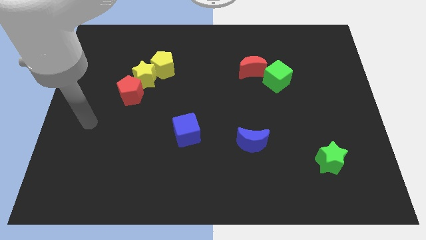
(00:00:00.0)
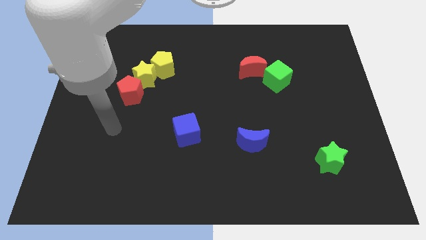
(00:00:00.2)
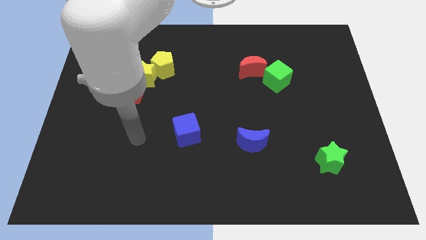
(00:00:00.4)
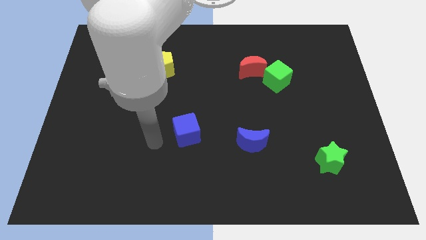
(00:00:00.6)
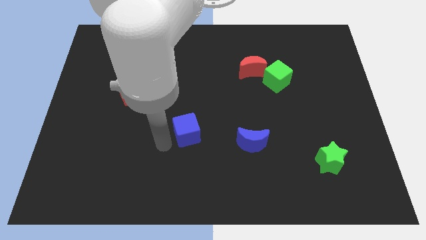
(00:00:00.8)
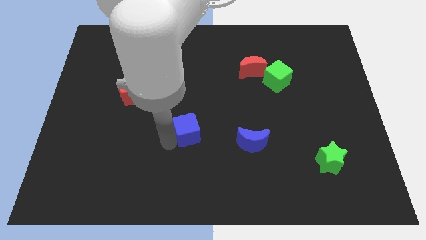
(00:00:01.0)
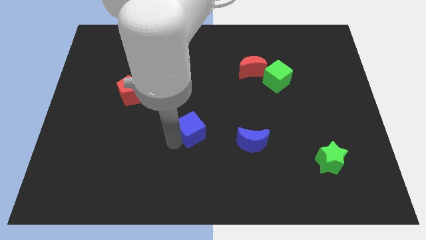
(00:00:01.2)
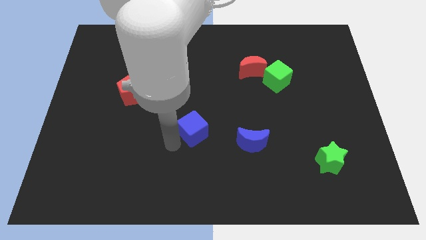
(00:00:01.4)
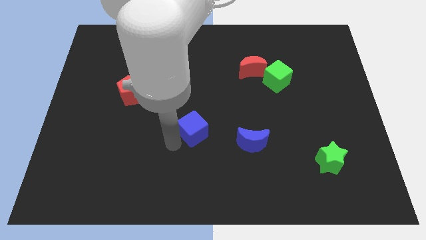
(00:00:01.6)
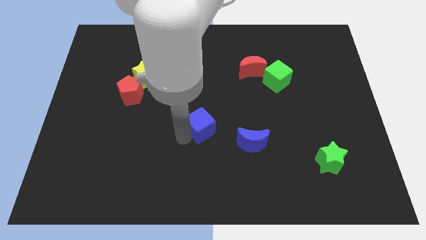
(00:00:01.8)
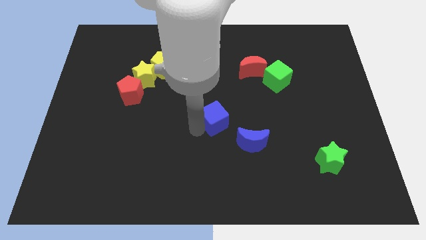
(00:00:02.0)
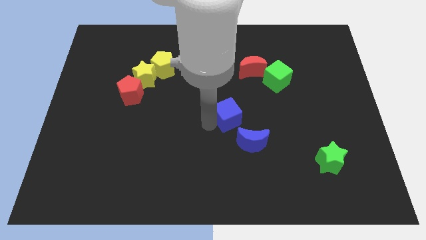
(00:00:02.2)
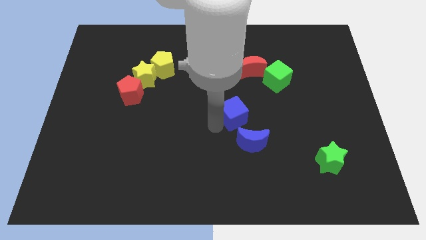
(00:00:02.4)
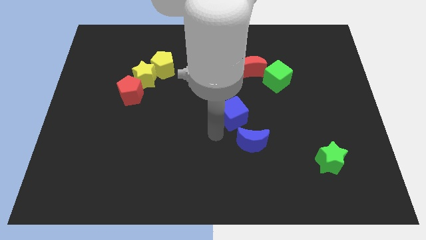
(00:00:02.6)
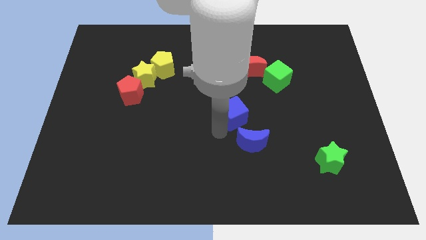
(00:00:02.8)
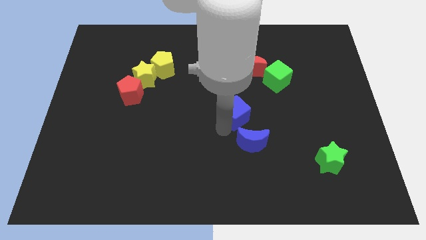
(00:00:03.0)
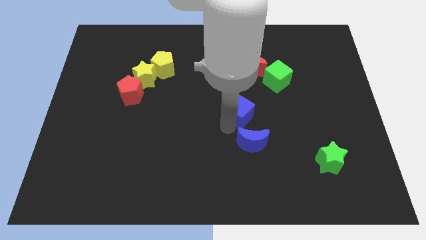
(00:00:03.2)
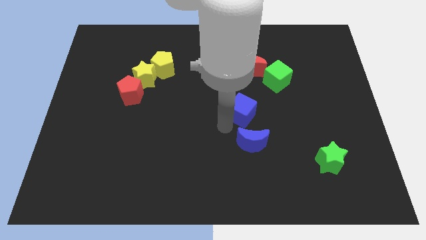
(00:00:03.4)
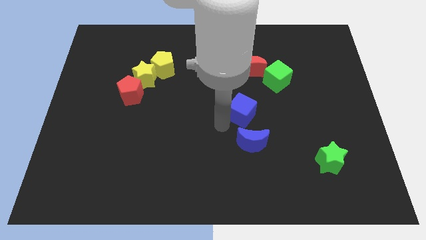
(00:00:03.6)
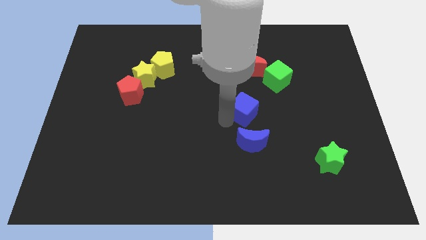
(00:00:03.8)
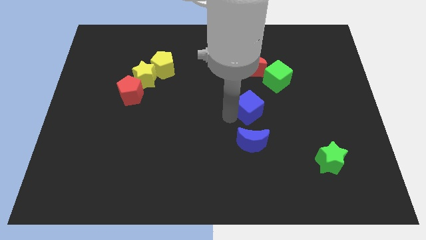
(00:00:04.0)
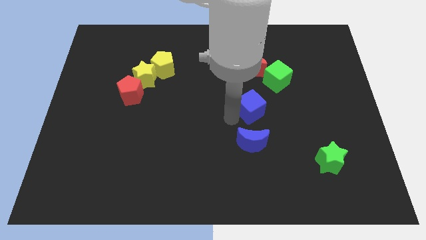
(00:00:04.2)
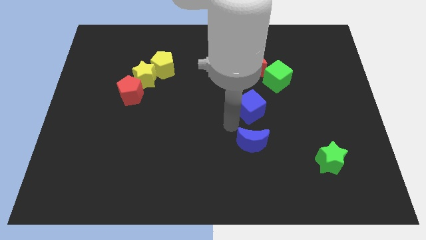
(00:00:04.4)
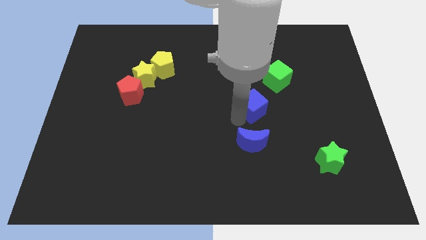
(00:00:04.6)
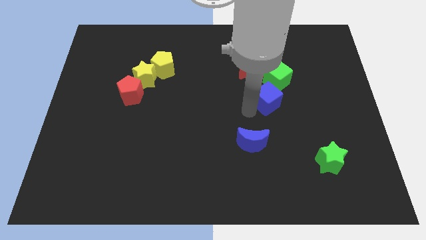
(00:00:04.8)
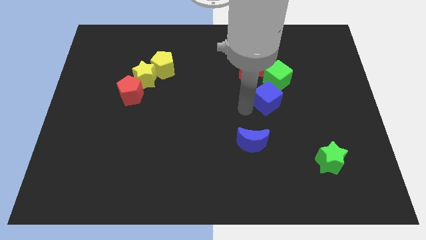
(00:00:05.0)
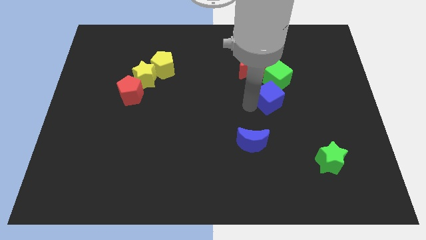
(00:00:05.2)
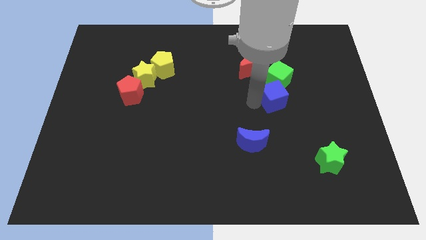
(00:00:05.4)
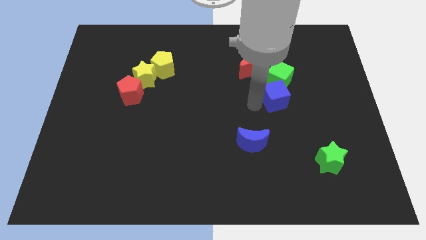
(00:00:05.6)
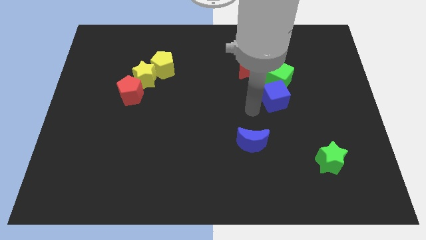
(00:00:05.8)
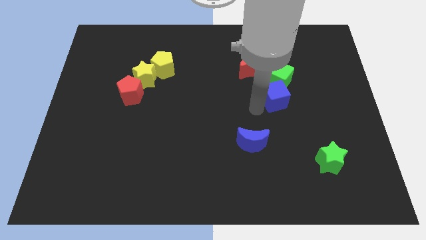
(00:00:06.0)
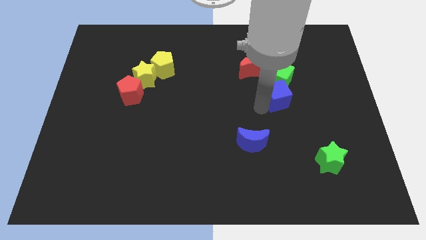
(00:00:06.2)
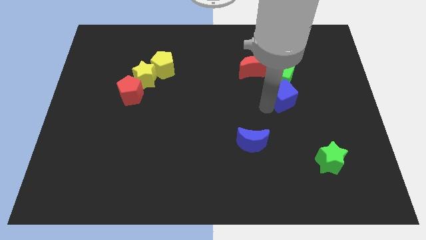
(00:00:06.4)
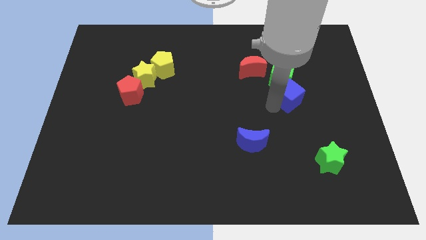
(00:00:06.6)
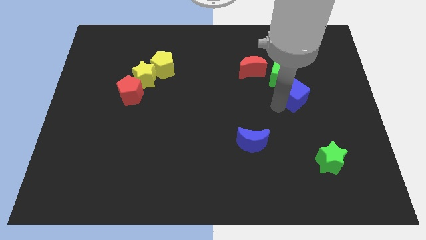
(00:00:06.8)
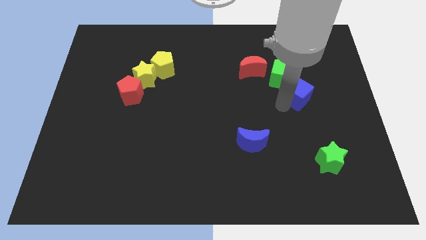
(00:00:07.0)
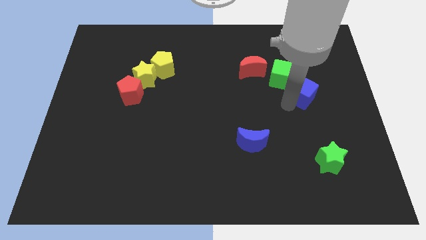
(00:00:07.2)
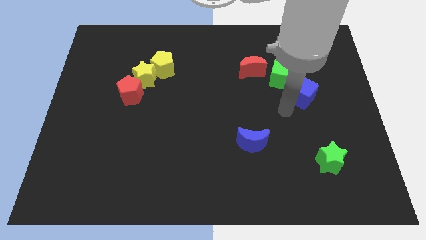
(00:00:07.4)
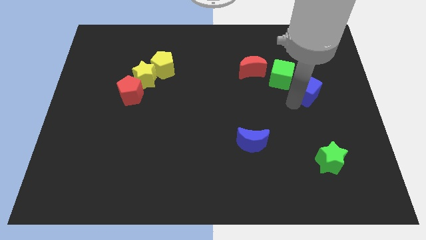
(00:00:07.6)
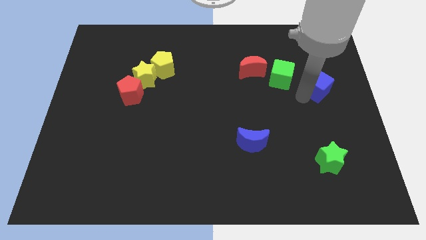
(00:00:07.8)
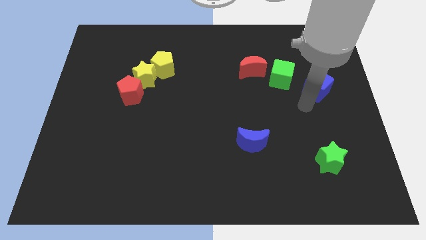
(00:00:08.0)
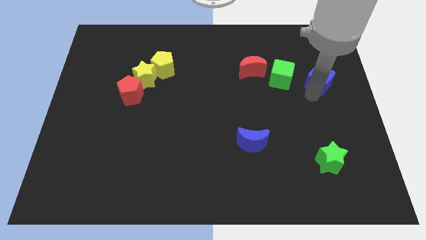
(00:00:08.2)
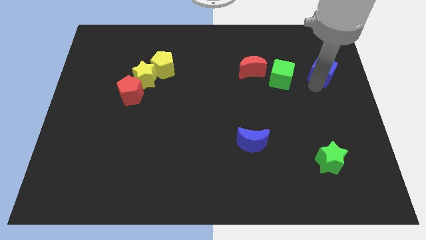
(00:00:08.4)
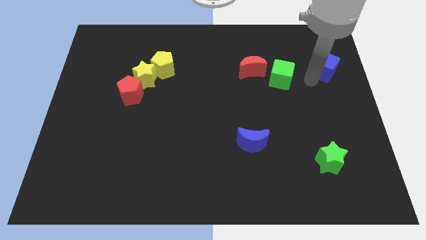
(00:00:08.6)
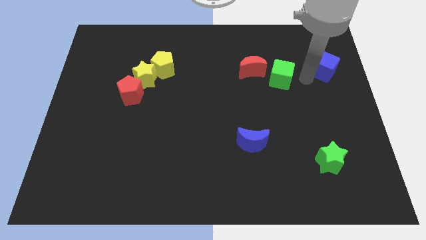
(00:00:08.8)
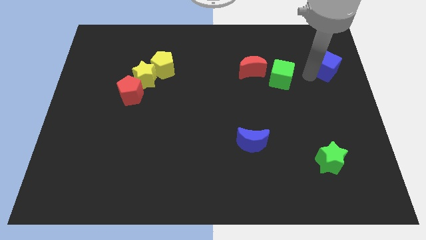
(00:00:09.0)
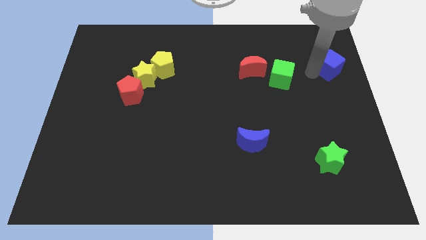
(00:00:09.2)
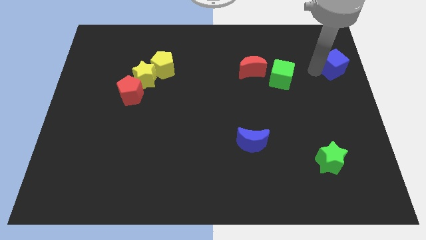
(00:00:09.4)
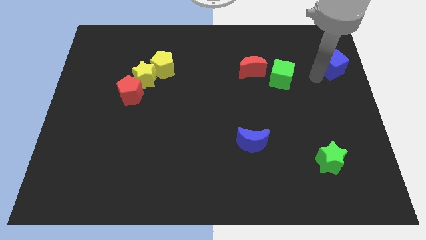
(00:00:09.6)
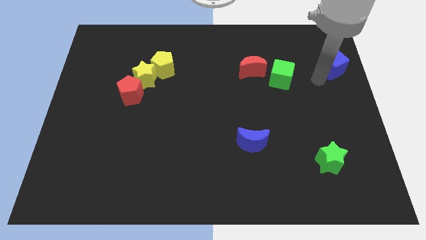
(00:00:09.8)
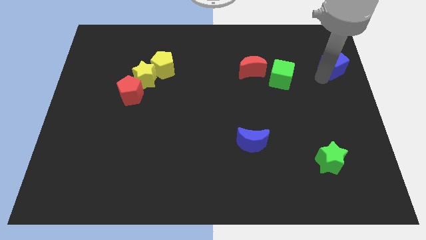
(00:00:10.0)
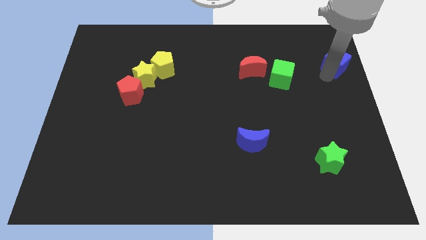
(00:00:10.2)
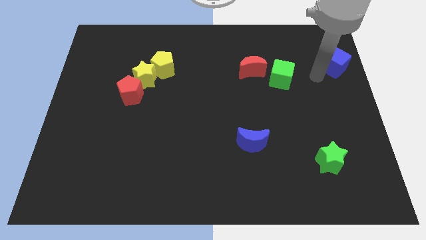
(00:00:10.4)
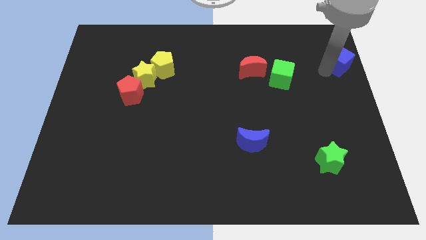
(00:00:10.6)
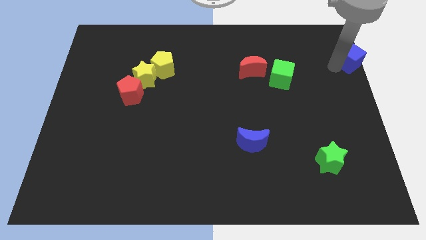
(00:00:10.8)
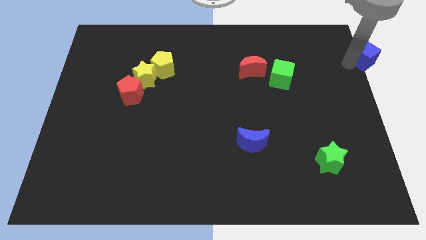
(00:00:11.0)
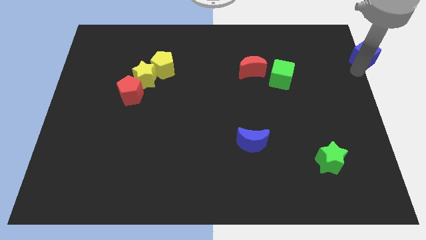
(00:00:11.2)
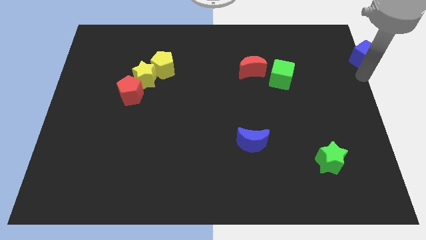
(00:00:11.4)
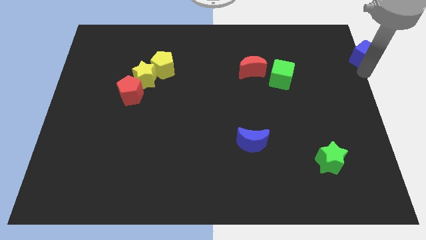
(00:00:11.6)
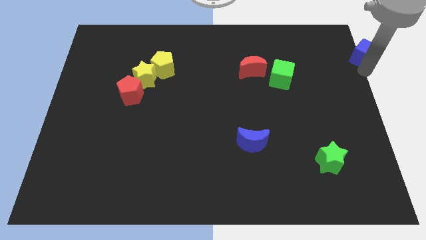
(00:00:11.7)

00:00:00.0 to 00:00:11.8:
push the blue cube to the top right

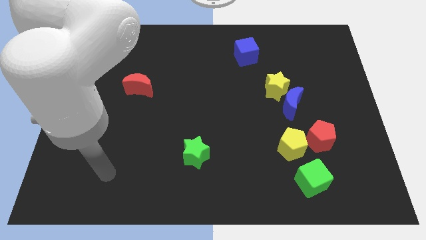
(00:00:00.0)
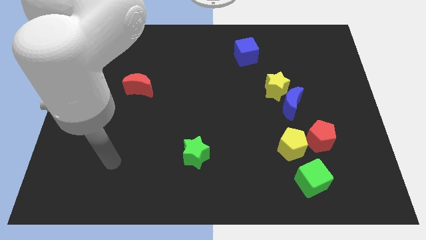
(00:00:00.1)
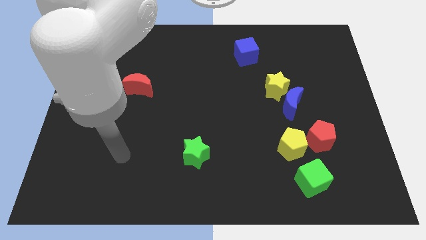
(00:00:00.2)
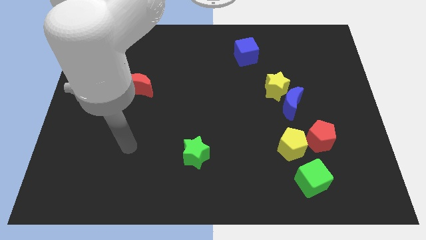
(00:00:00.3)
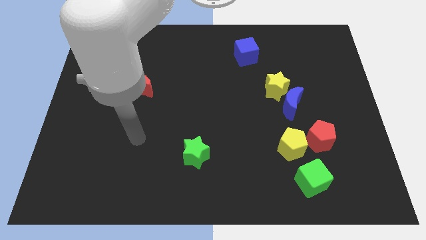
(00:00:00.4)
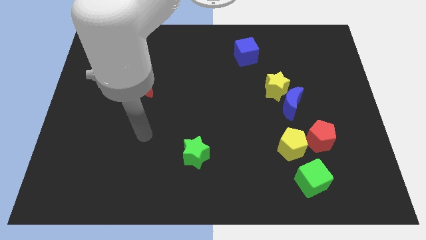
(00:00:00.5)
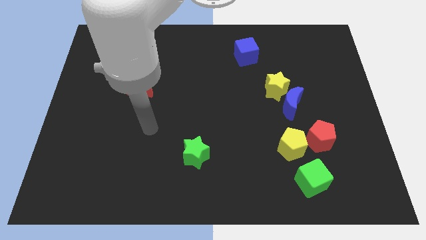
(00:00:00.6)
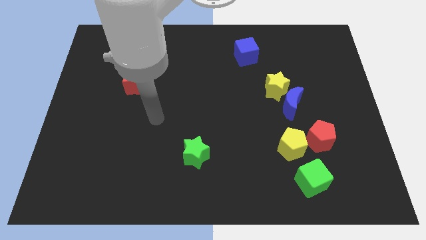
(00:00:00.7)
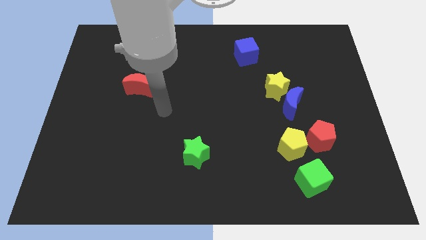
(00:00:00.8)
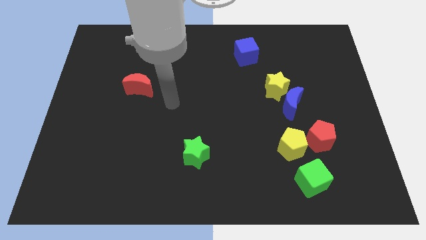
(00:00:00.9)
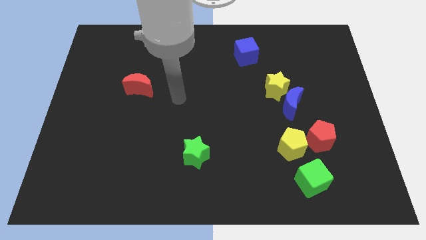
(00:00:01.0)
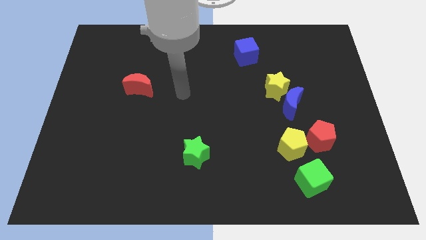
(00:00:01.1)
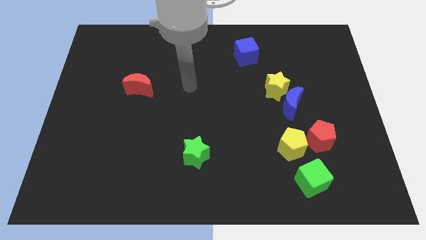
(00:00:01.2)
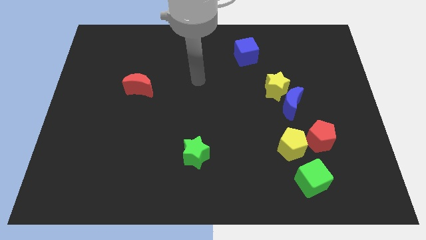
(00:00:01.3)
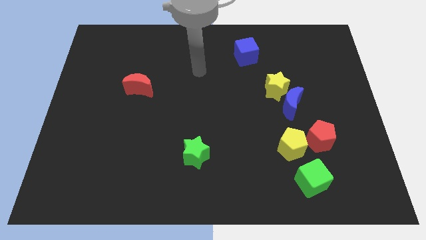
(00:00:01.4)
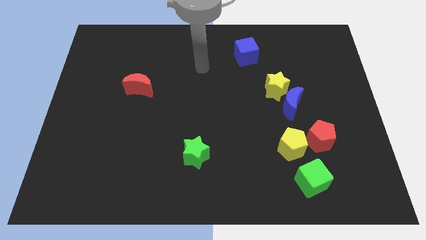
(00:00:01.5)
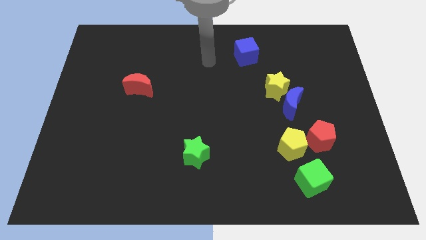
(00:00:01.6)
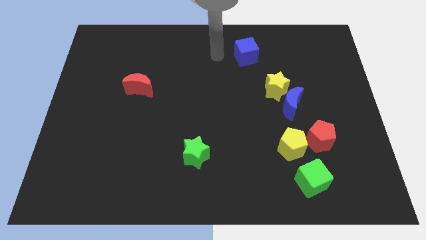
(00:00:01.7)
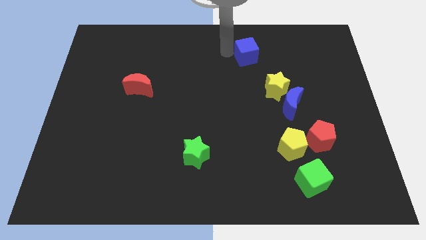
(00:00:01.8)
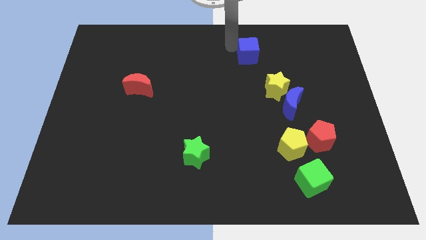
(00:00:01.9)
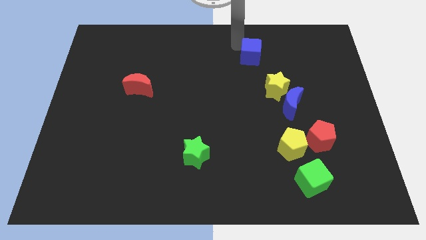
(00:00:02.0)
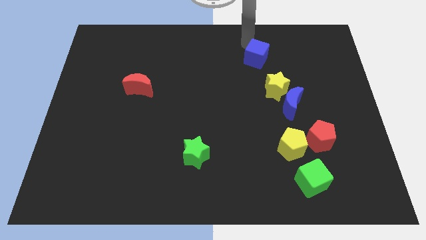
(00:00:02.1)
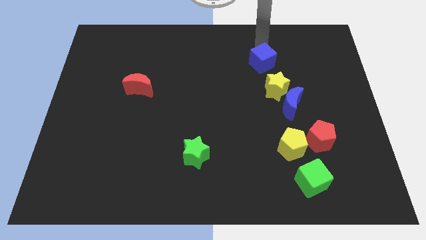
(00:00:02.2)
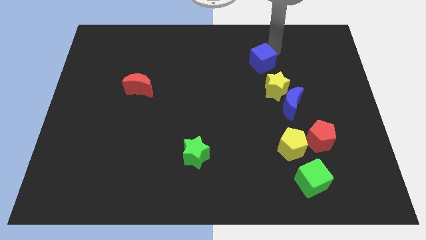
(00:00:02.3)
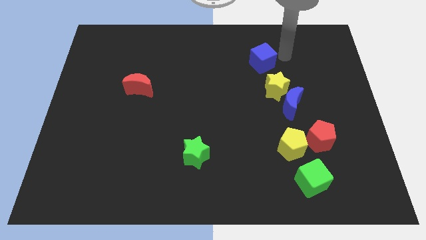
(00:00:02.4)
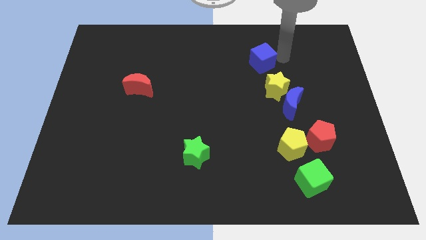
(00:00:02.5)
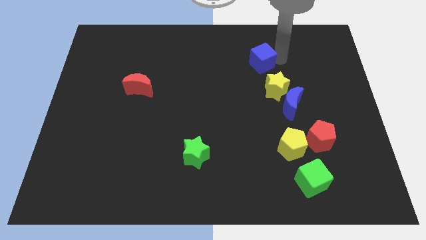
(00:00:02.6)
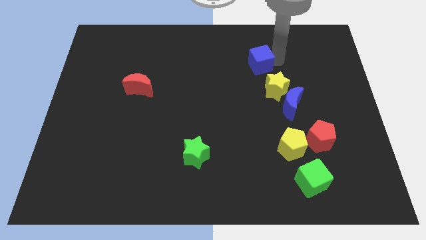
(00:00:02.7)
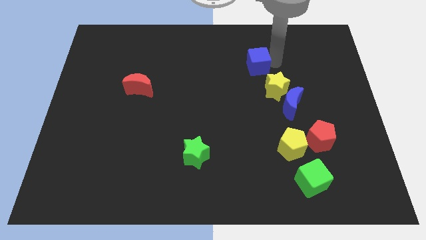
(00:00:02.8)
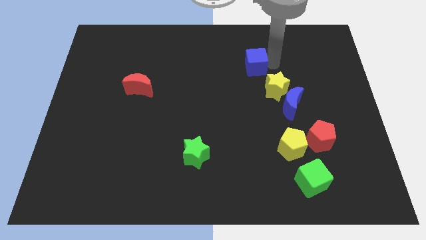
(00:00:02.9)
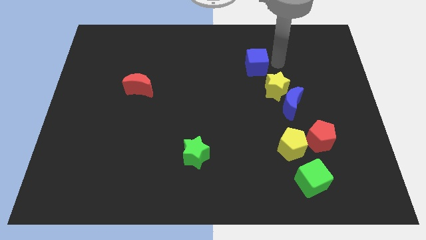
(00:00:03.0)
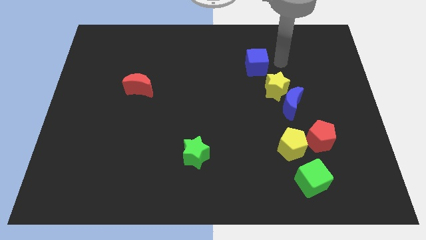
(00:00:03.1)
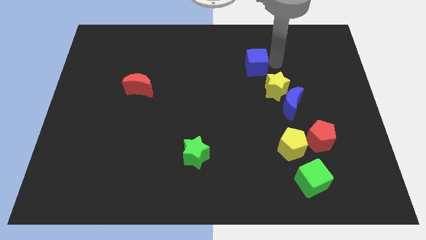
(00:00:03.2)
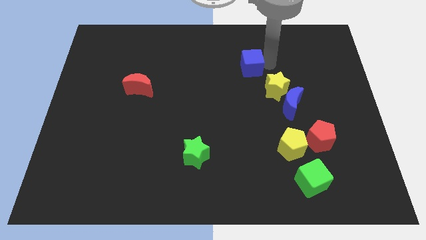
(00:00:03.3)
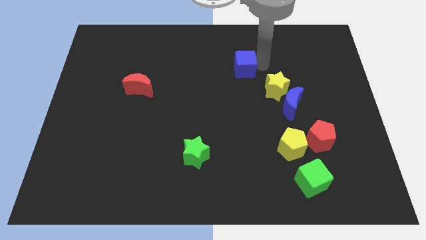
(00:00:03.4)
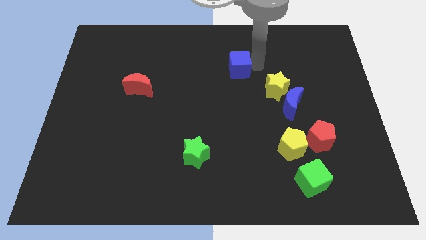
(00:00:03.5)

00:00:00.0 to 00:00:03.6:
push the blue cube to the center of the board
